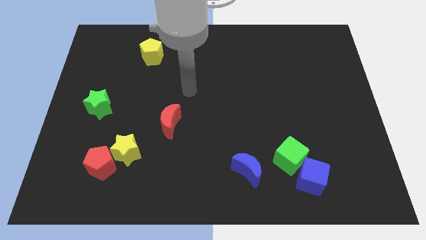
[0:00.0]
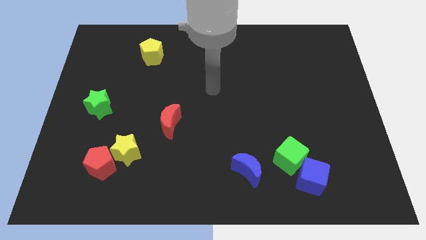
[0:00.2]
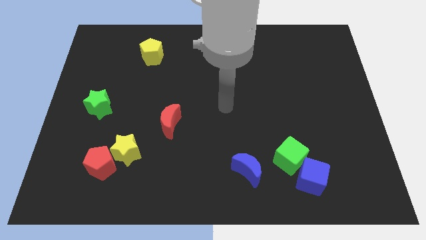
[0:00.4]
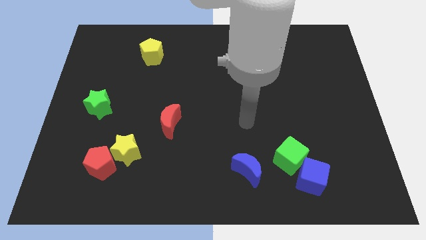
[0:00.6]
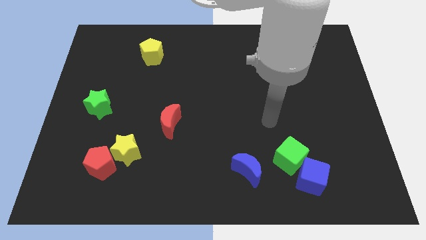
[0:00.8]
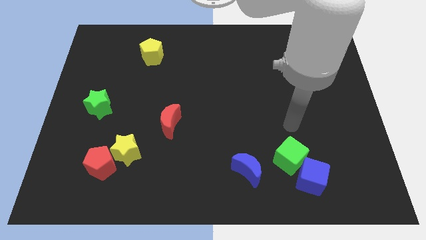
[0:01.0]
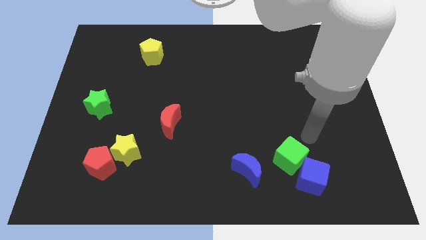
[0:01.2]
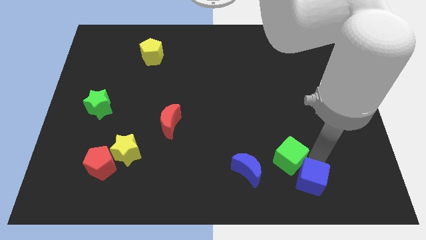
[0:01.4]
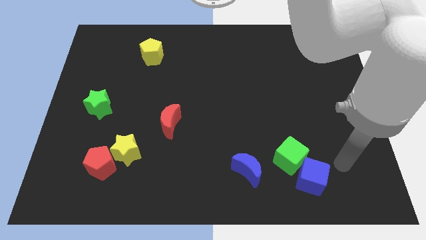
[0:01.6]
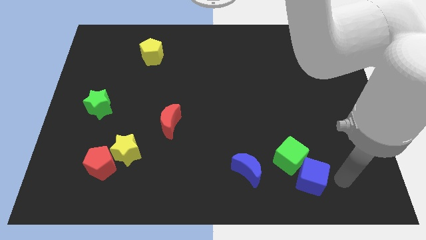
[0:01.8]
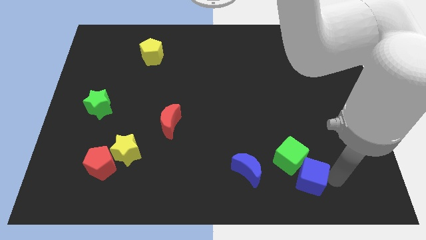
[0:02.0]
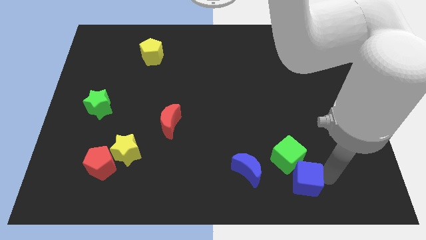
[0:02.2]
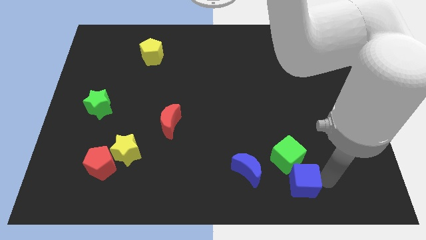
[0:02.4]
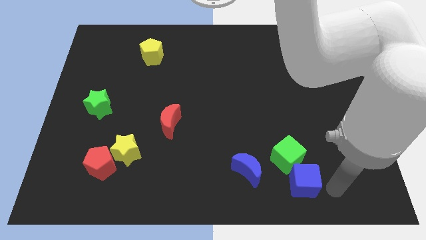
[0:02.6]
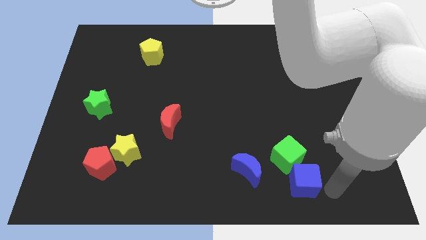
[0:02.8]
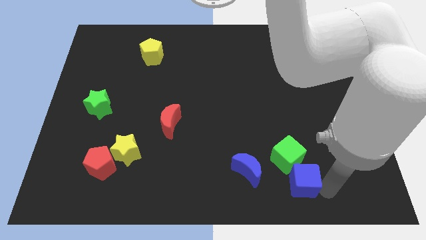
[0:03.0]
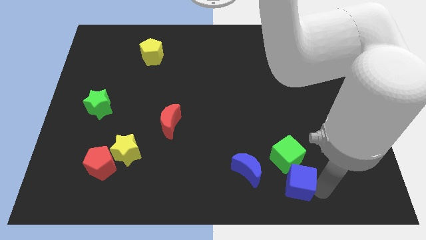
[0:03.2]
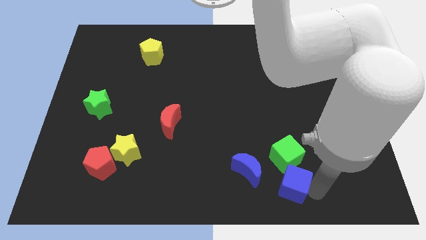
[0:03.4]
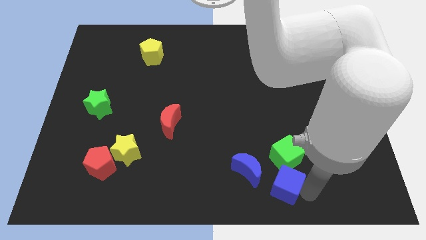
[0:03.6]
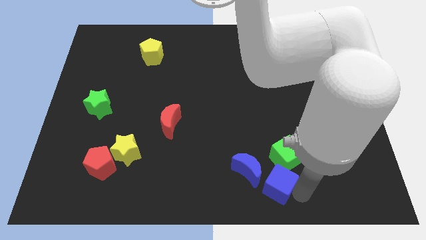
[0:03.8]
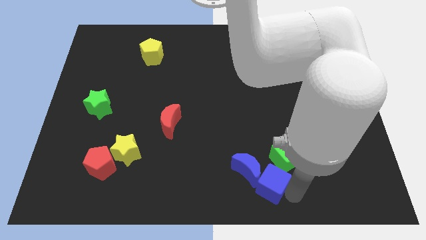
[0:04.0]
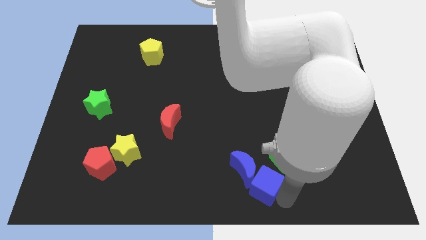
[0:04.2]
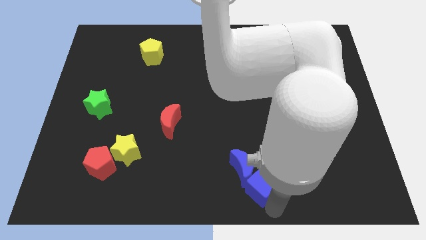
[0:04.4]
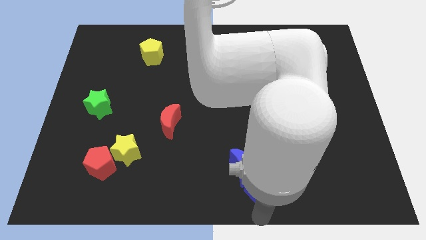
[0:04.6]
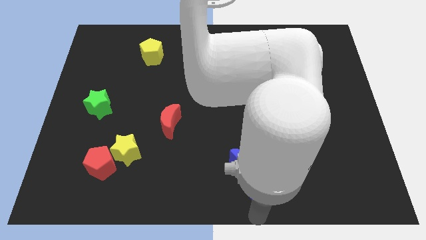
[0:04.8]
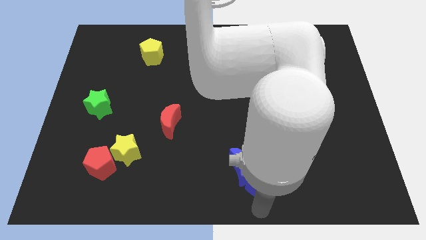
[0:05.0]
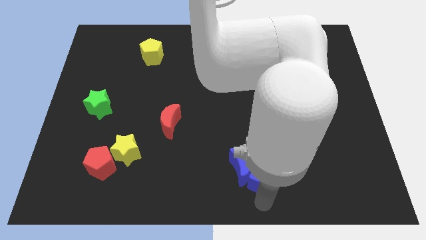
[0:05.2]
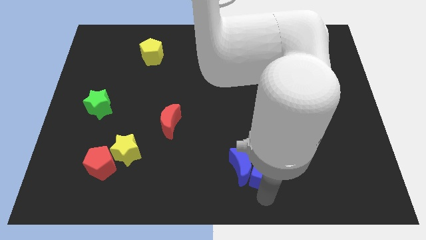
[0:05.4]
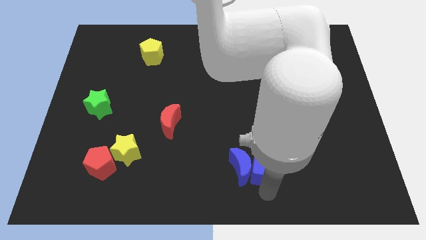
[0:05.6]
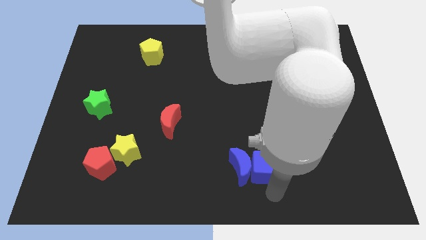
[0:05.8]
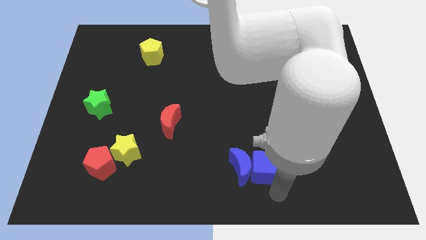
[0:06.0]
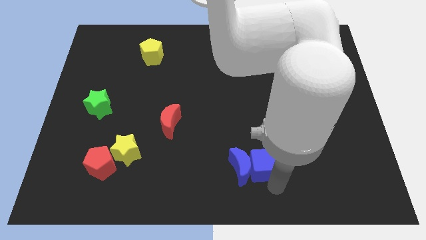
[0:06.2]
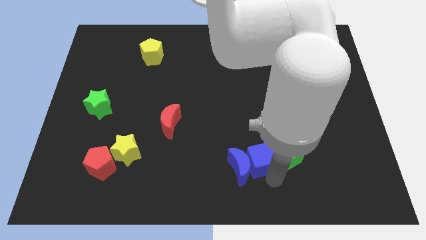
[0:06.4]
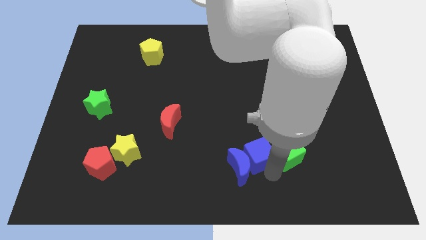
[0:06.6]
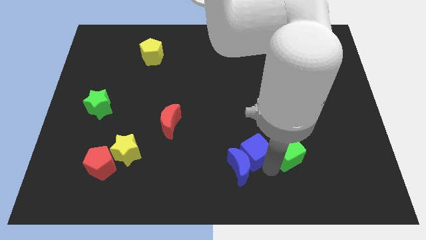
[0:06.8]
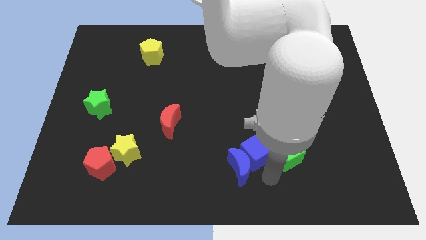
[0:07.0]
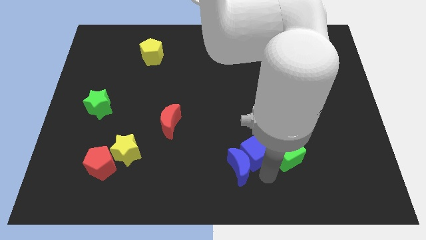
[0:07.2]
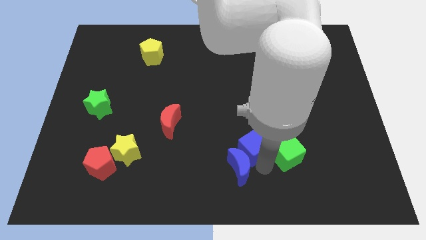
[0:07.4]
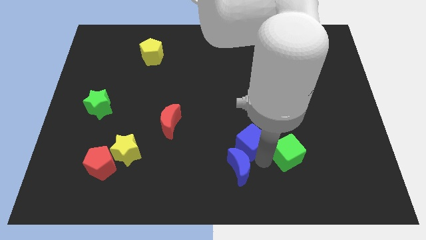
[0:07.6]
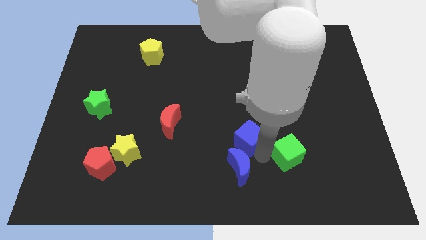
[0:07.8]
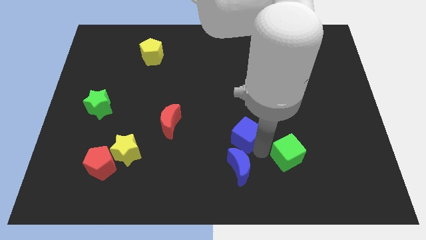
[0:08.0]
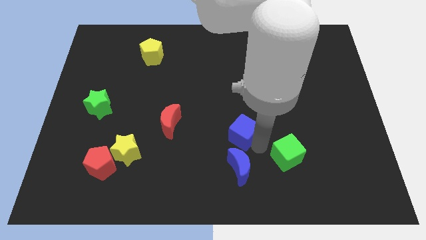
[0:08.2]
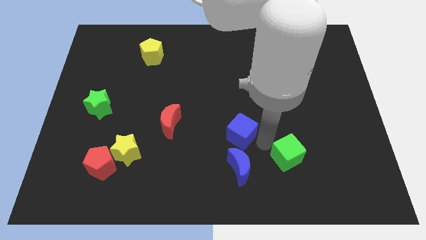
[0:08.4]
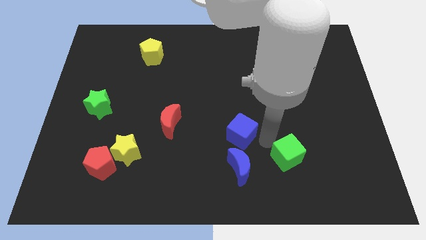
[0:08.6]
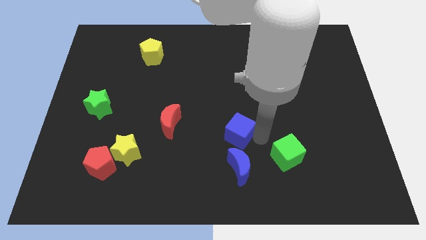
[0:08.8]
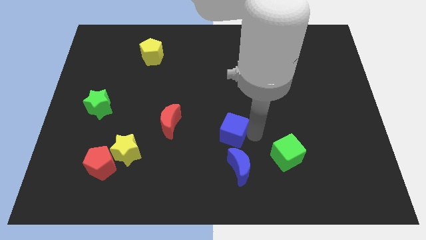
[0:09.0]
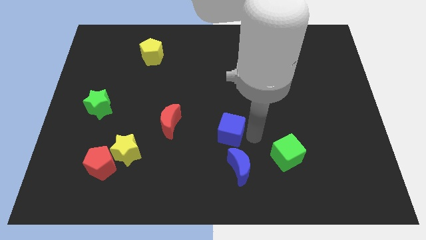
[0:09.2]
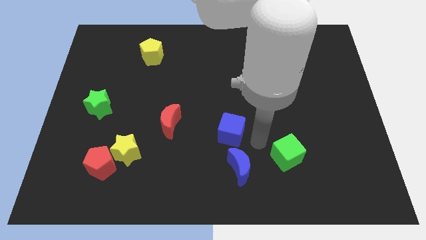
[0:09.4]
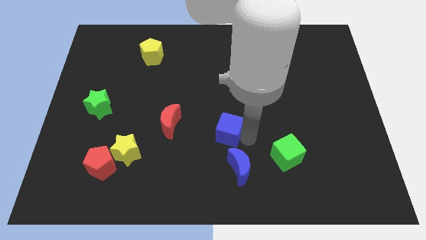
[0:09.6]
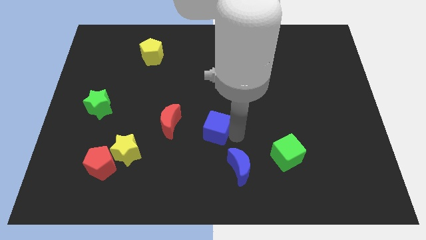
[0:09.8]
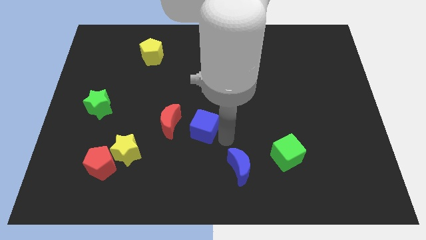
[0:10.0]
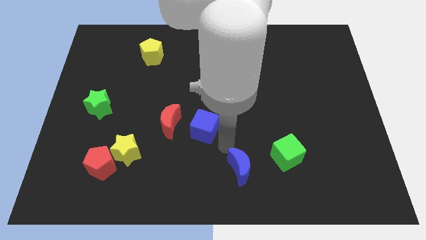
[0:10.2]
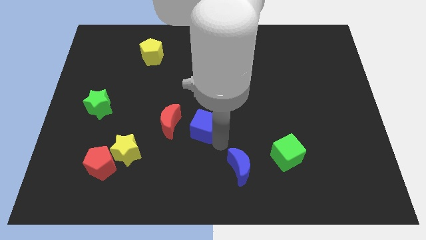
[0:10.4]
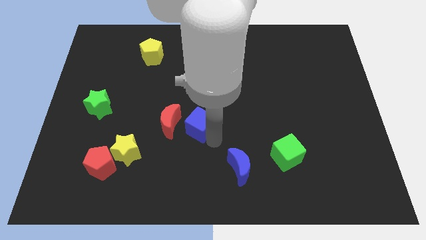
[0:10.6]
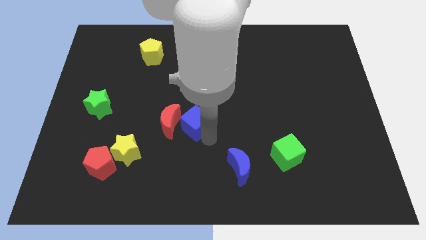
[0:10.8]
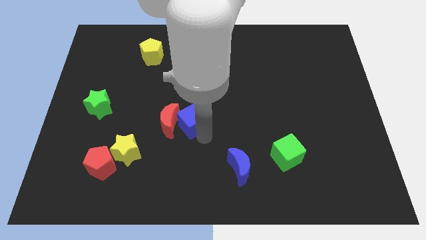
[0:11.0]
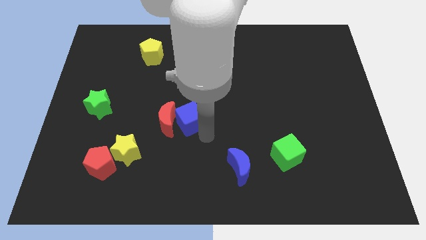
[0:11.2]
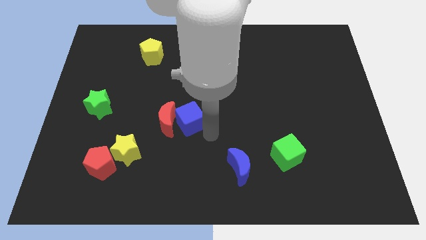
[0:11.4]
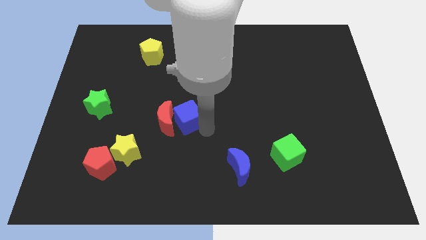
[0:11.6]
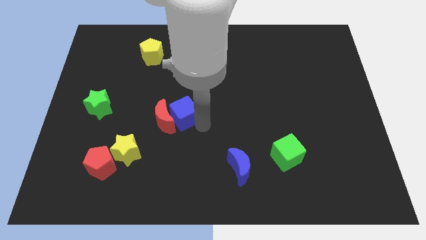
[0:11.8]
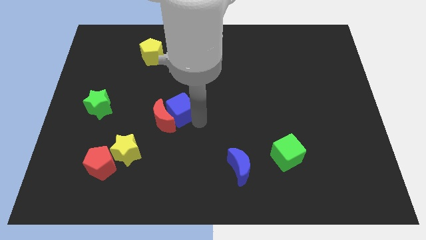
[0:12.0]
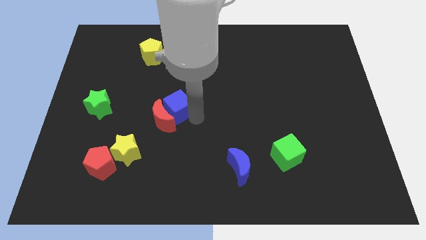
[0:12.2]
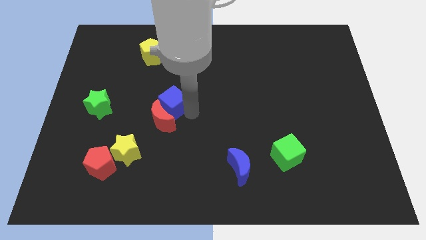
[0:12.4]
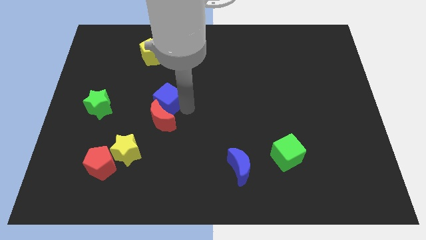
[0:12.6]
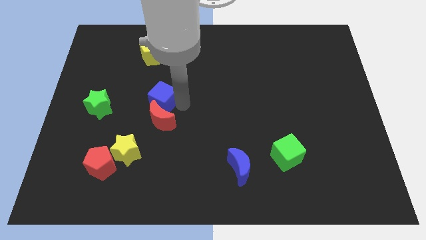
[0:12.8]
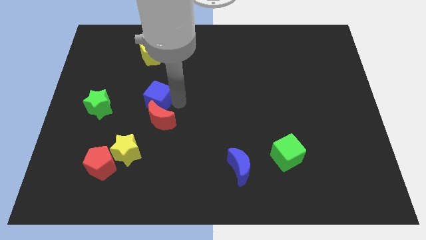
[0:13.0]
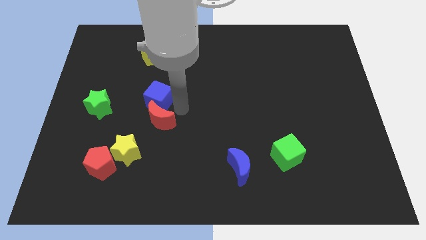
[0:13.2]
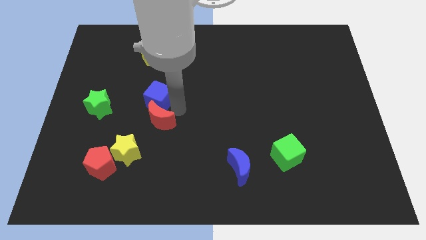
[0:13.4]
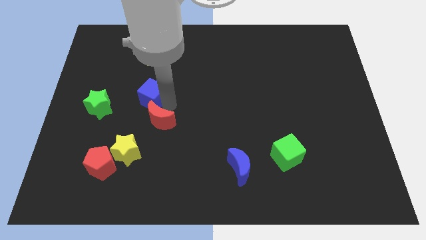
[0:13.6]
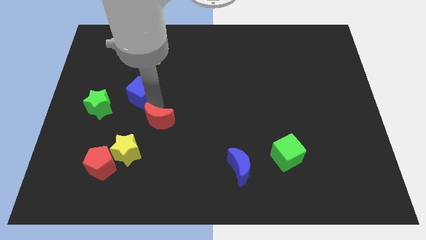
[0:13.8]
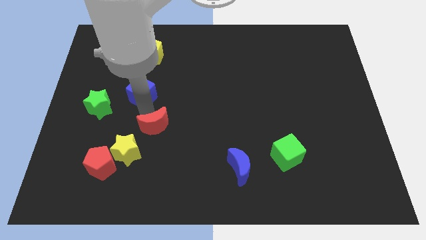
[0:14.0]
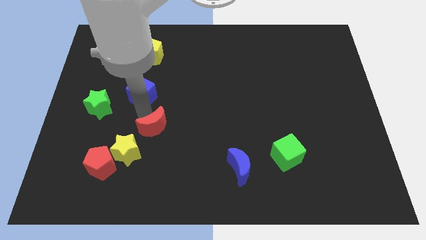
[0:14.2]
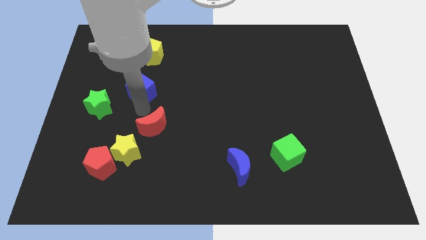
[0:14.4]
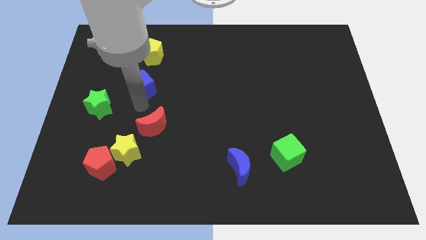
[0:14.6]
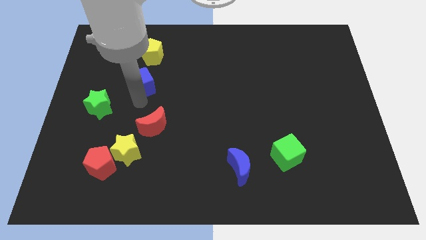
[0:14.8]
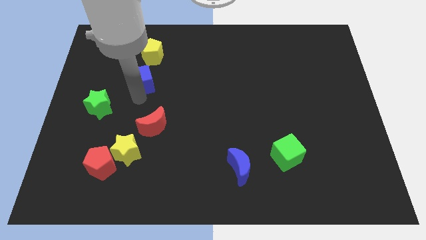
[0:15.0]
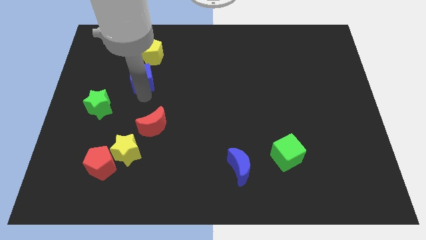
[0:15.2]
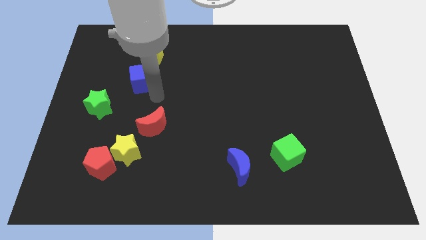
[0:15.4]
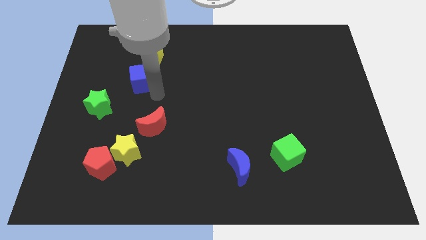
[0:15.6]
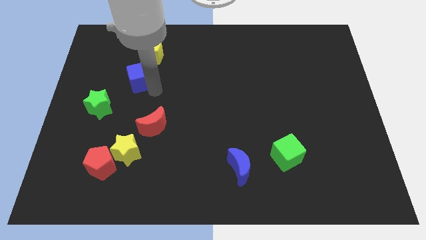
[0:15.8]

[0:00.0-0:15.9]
put the blue cube diagonally down and to the left of the yellow pentagon
